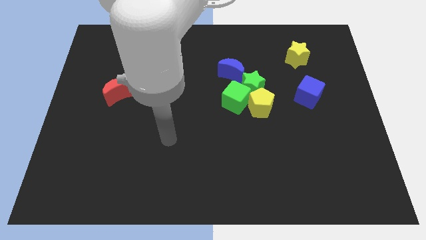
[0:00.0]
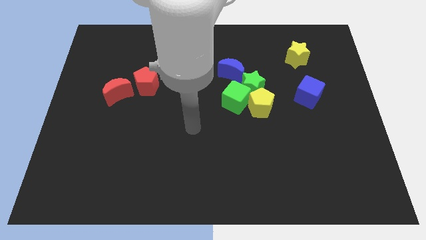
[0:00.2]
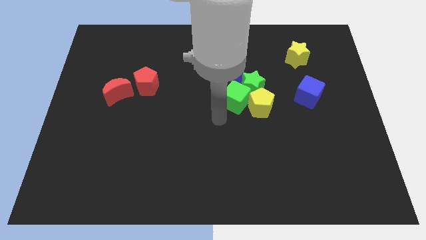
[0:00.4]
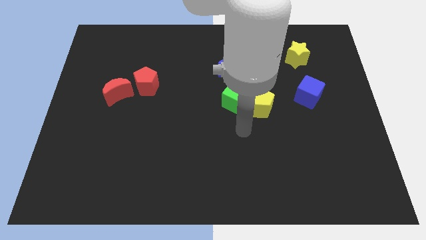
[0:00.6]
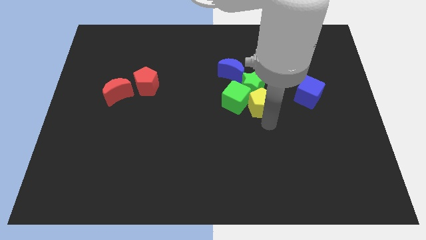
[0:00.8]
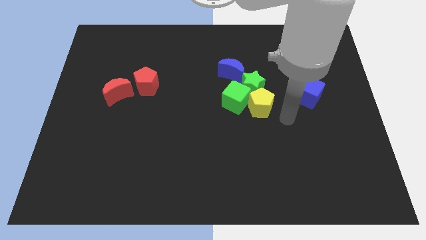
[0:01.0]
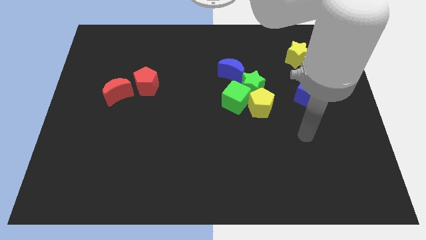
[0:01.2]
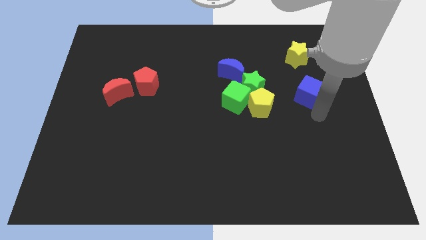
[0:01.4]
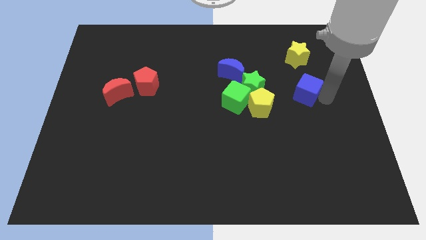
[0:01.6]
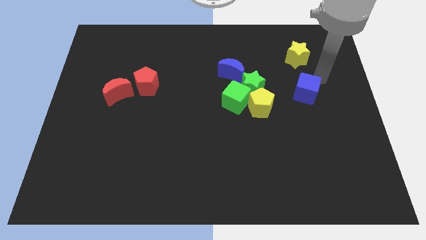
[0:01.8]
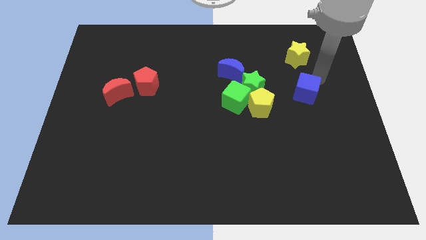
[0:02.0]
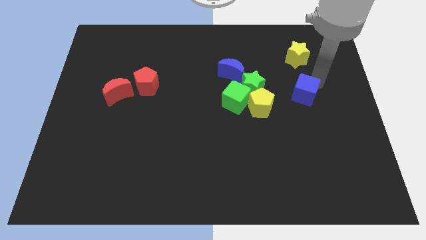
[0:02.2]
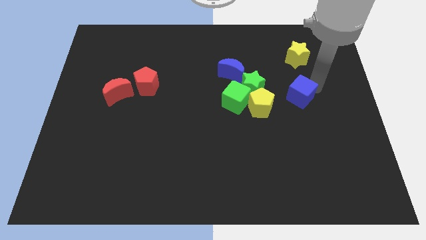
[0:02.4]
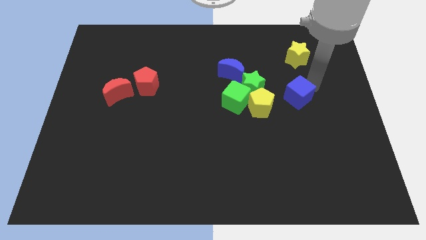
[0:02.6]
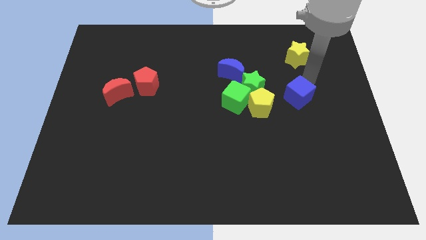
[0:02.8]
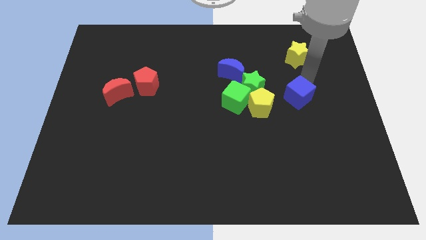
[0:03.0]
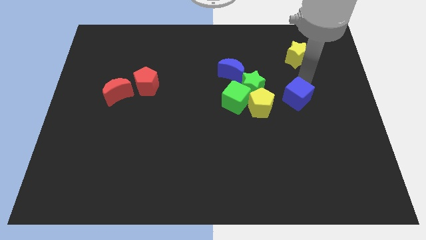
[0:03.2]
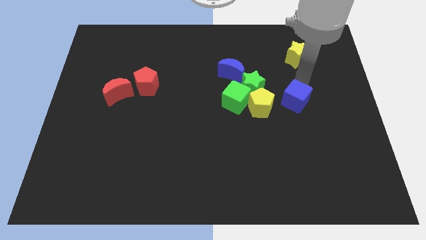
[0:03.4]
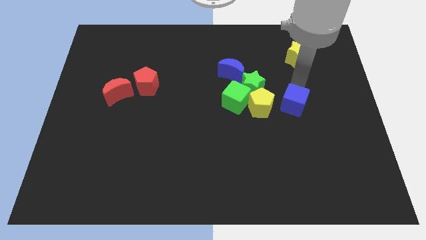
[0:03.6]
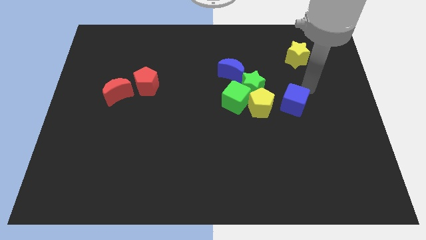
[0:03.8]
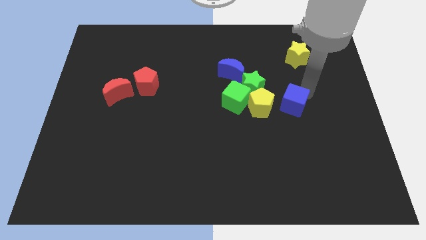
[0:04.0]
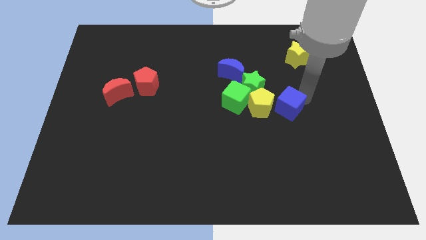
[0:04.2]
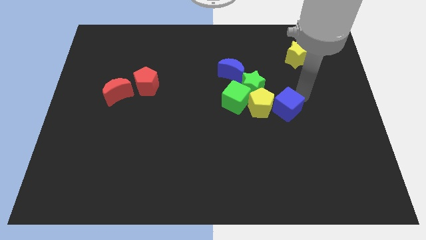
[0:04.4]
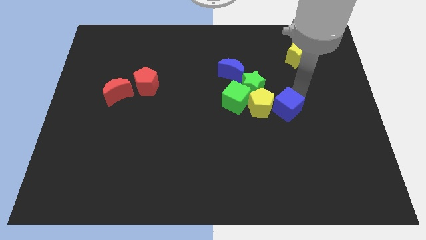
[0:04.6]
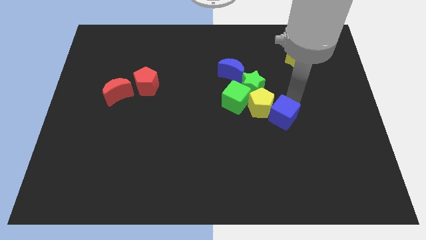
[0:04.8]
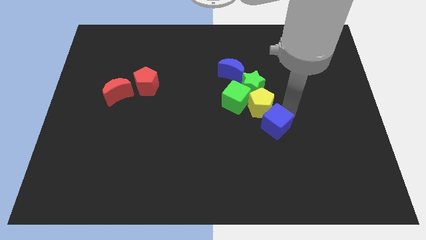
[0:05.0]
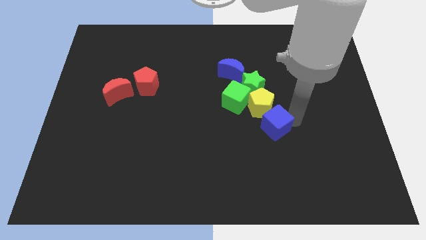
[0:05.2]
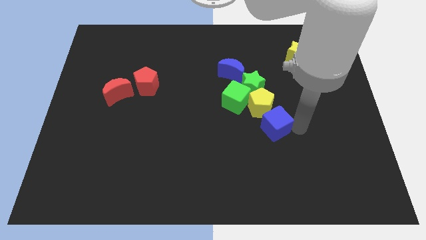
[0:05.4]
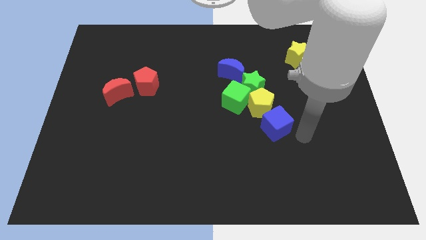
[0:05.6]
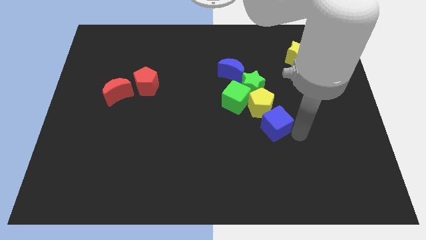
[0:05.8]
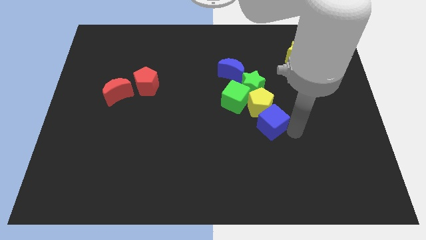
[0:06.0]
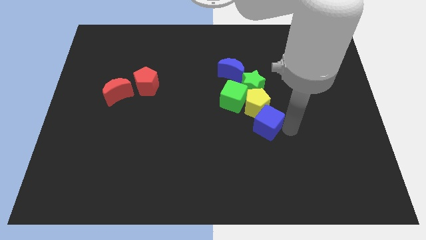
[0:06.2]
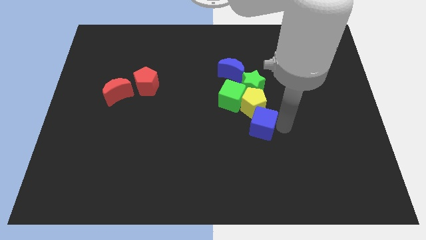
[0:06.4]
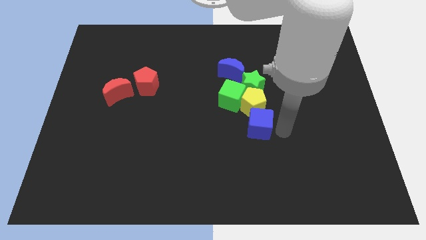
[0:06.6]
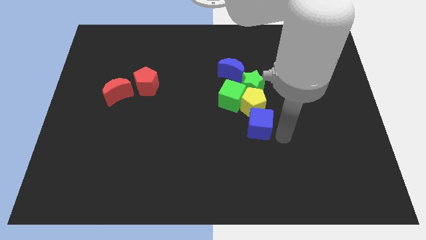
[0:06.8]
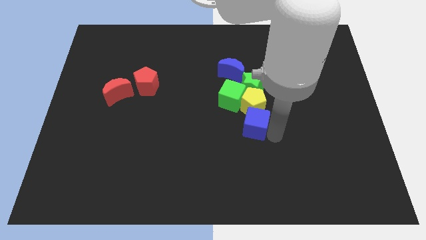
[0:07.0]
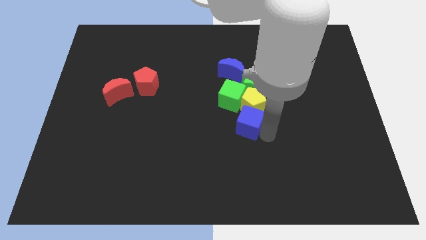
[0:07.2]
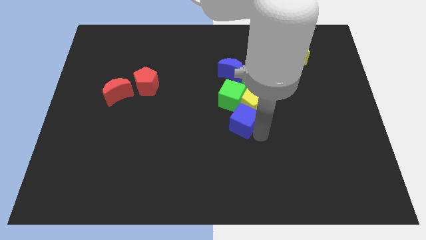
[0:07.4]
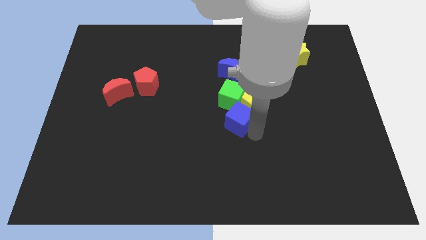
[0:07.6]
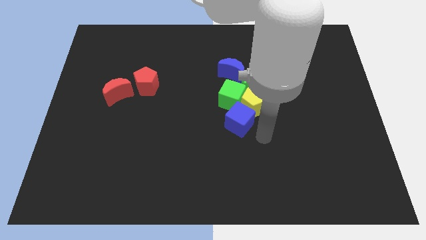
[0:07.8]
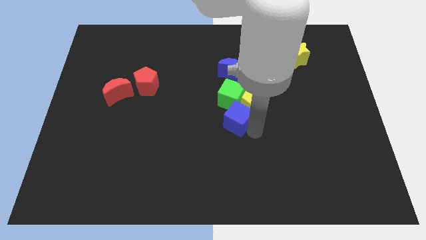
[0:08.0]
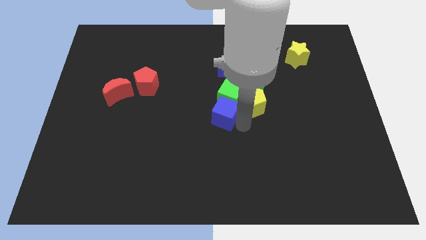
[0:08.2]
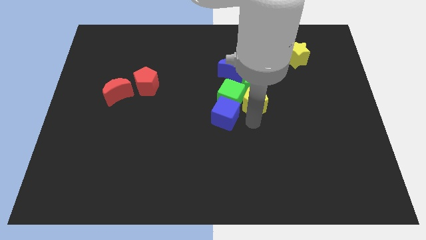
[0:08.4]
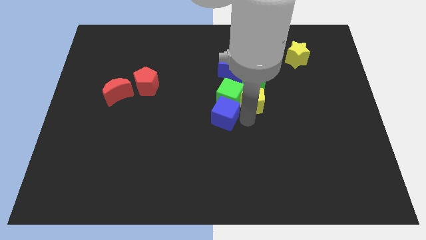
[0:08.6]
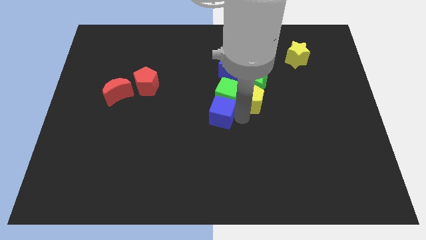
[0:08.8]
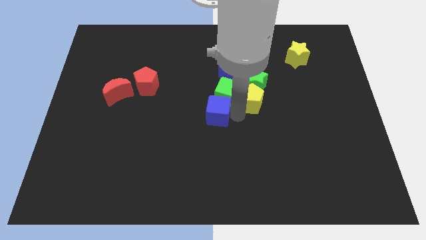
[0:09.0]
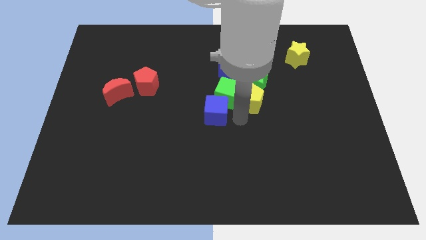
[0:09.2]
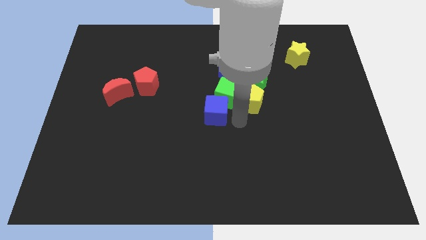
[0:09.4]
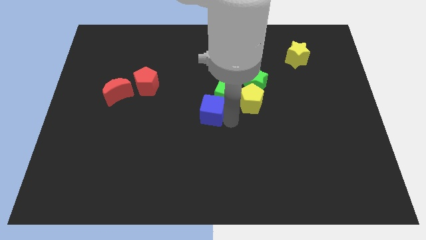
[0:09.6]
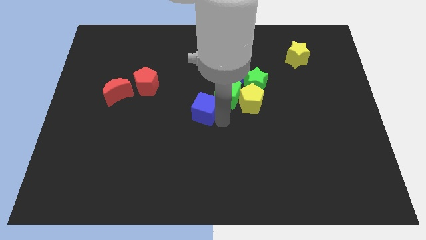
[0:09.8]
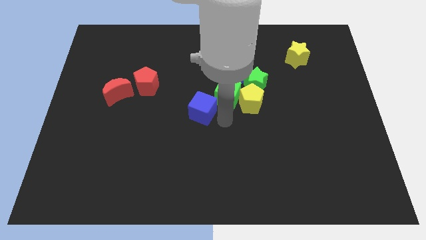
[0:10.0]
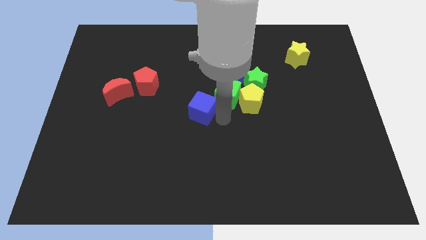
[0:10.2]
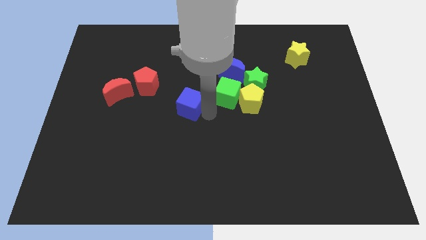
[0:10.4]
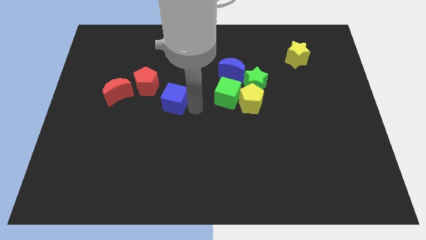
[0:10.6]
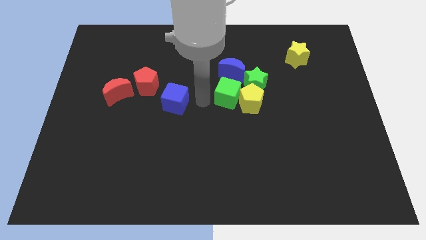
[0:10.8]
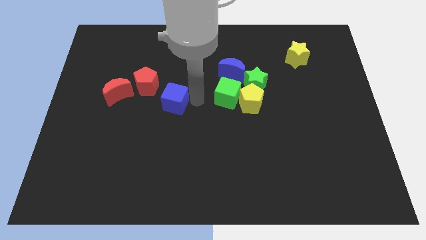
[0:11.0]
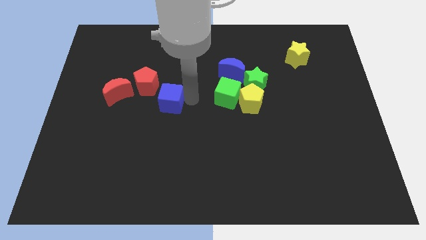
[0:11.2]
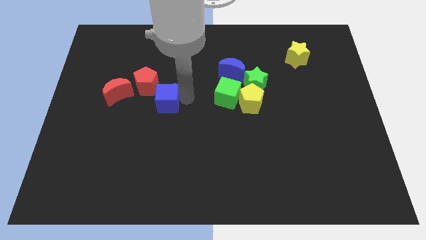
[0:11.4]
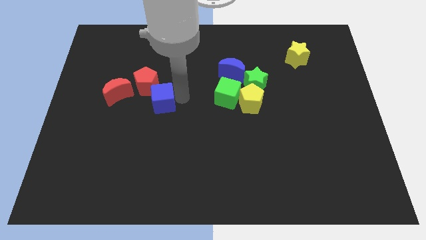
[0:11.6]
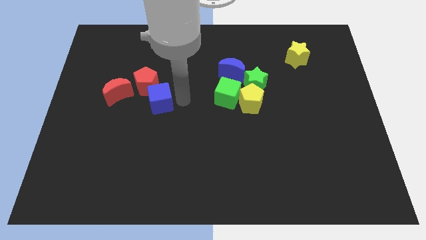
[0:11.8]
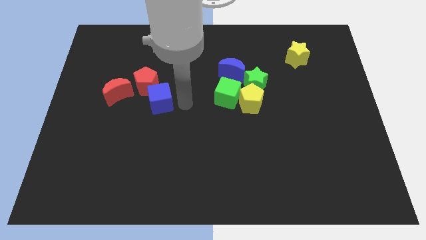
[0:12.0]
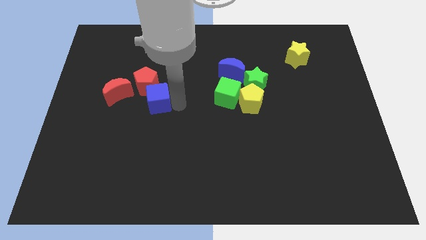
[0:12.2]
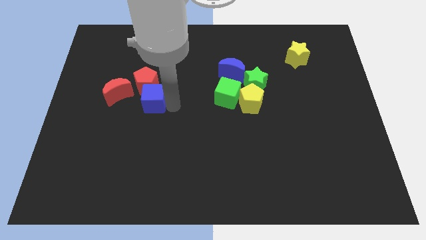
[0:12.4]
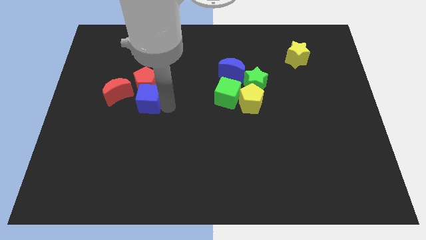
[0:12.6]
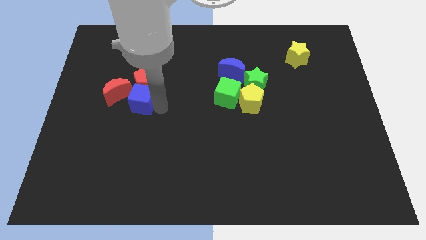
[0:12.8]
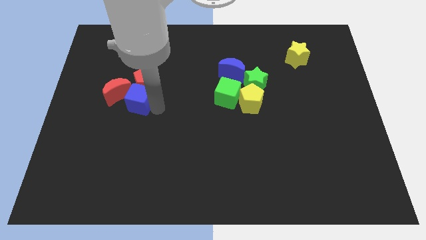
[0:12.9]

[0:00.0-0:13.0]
slide the blue cube next to the red moon

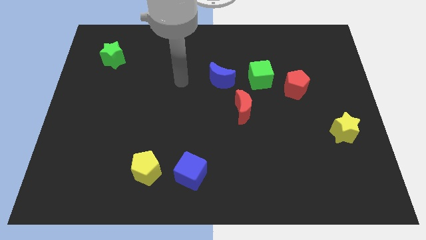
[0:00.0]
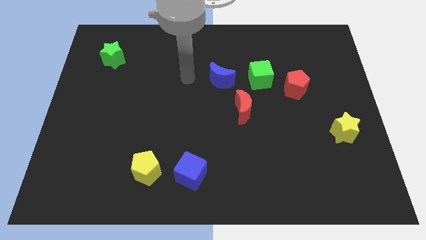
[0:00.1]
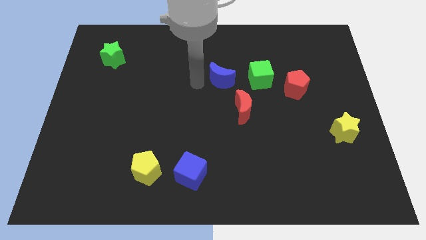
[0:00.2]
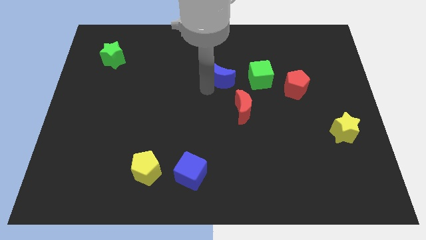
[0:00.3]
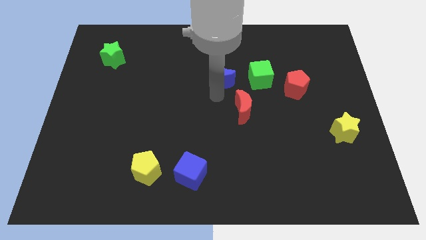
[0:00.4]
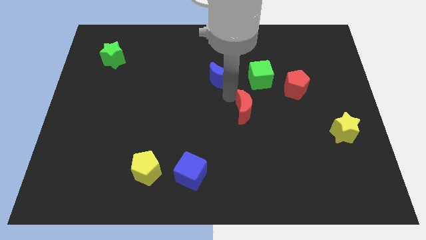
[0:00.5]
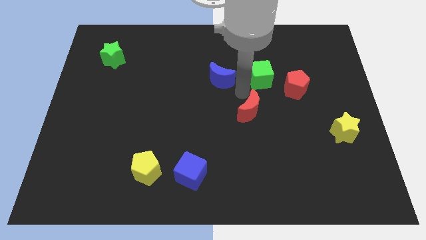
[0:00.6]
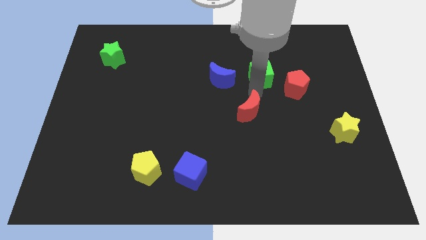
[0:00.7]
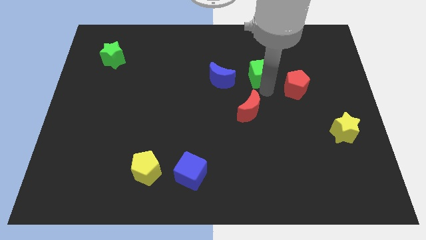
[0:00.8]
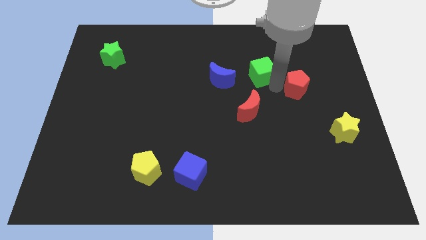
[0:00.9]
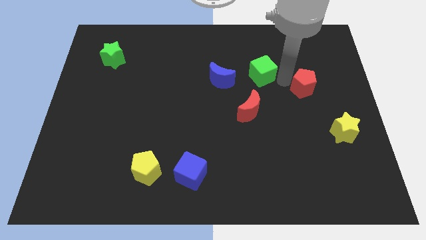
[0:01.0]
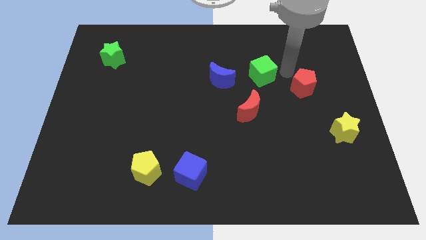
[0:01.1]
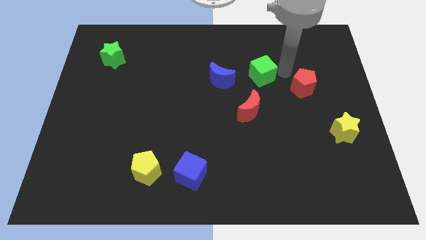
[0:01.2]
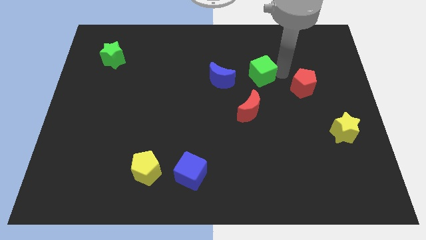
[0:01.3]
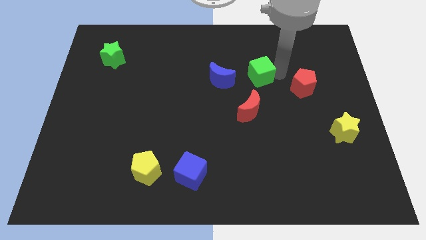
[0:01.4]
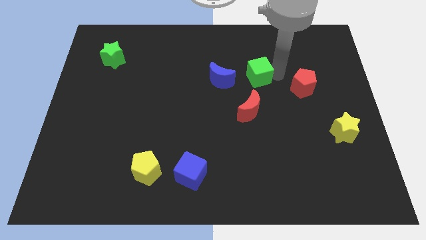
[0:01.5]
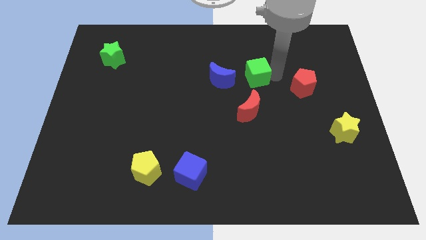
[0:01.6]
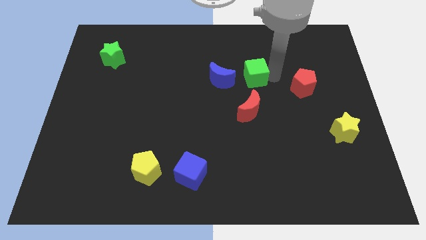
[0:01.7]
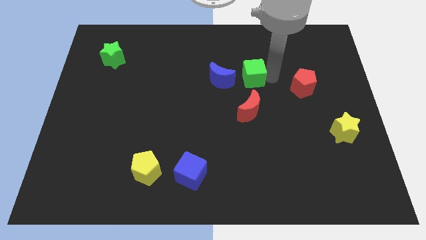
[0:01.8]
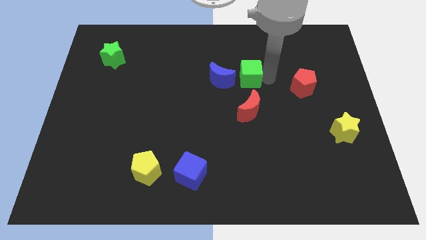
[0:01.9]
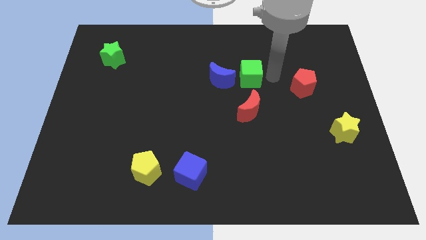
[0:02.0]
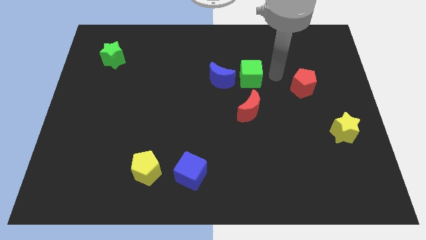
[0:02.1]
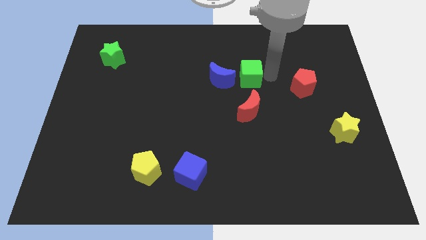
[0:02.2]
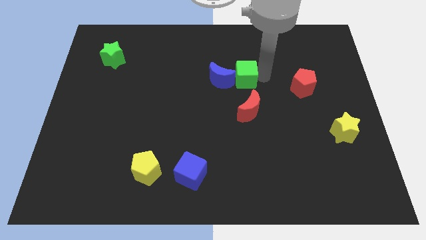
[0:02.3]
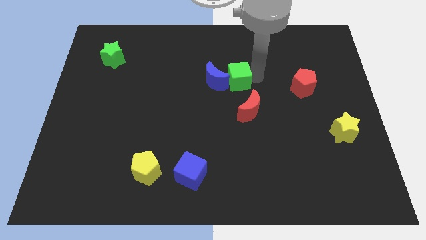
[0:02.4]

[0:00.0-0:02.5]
put the green cube towards the blue moon
